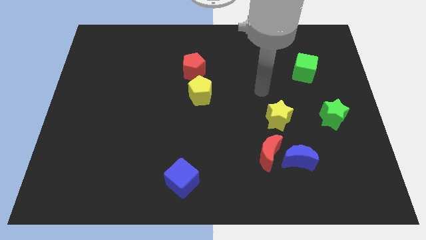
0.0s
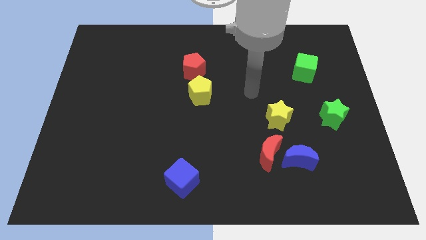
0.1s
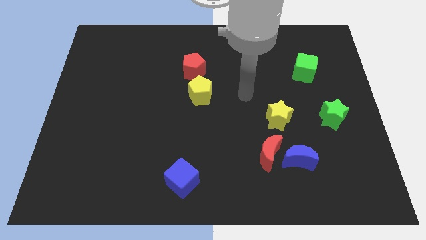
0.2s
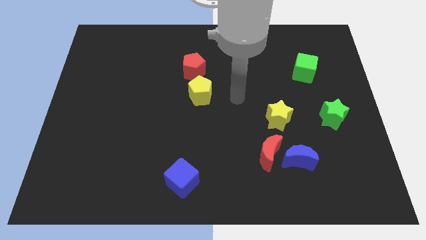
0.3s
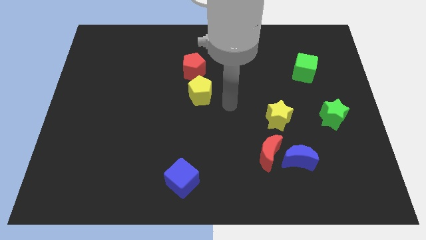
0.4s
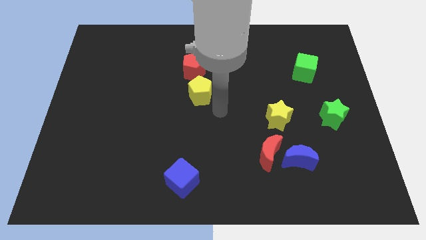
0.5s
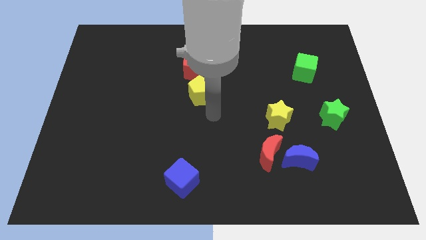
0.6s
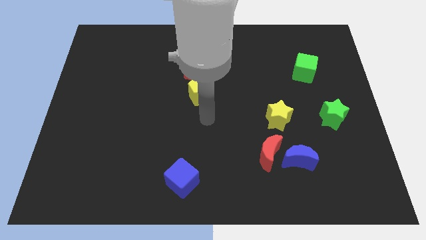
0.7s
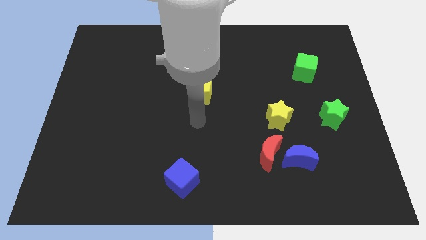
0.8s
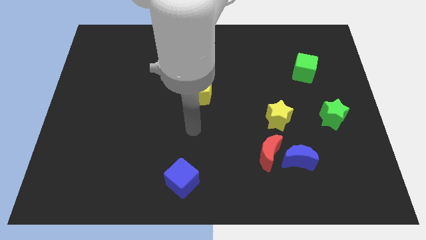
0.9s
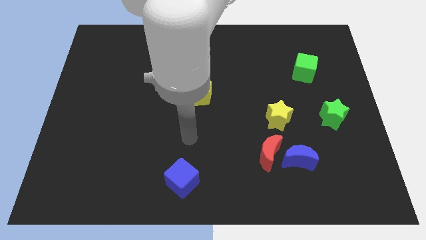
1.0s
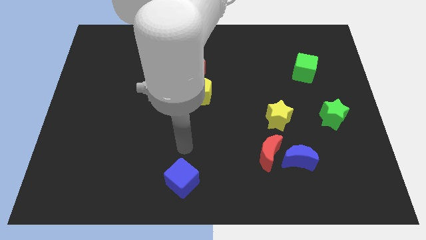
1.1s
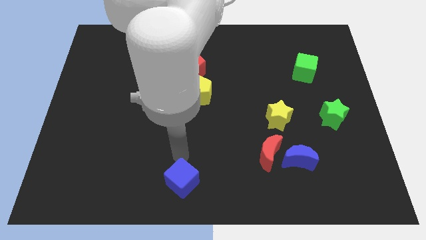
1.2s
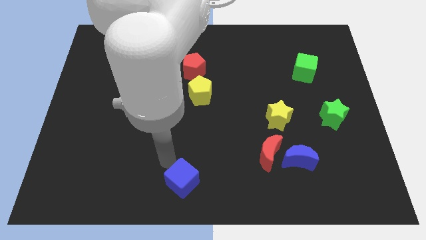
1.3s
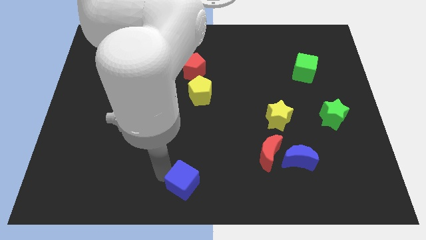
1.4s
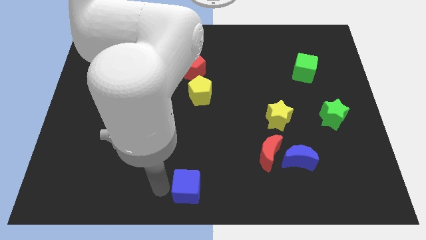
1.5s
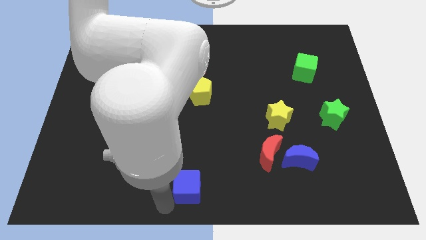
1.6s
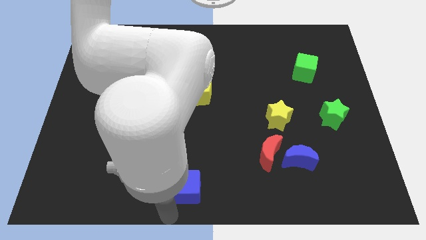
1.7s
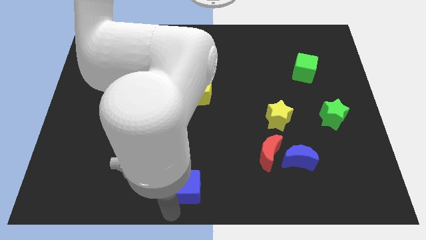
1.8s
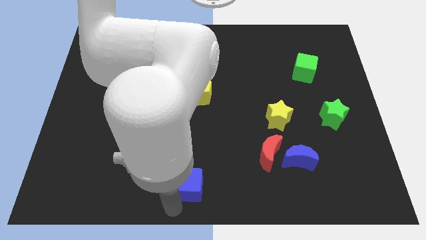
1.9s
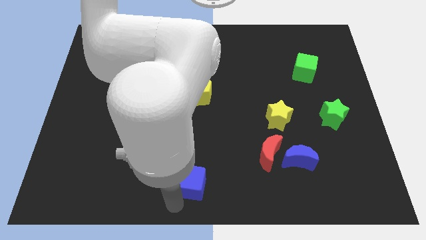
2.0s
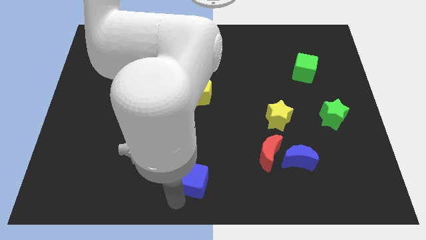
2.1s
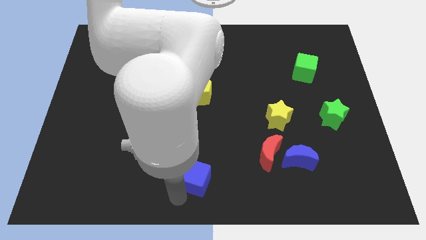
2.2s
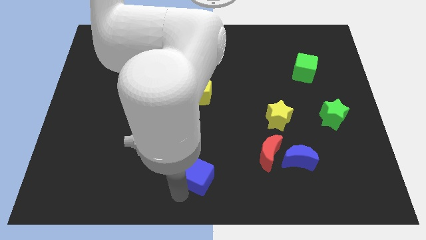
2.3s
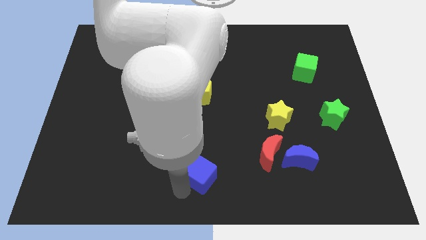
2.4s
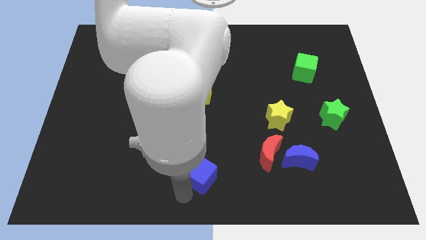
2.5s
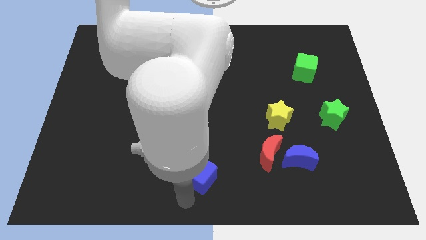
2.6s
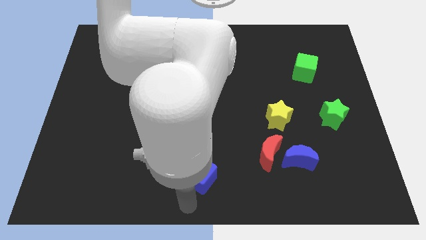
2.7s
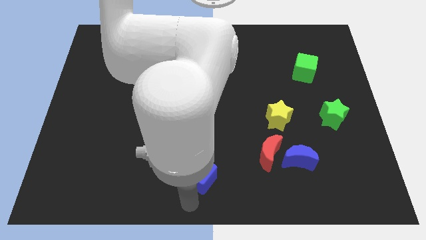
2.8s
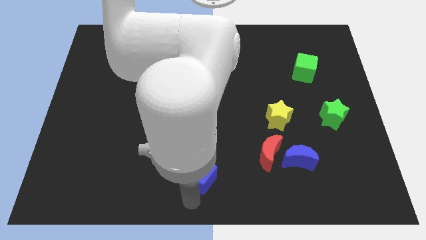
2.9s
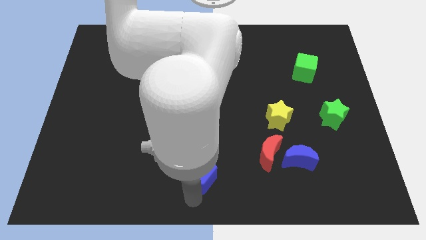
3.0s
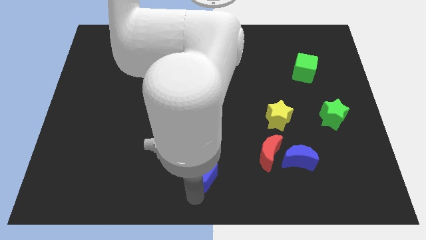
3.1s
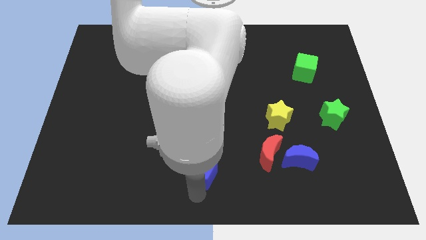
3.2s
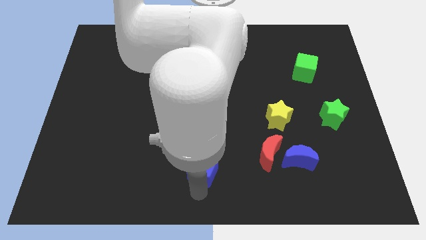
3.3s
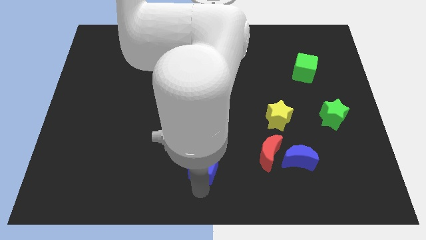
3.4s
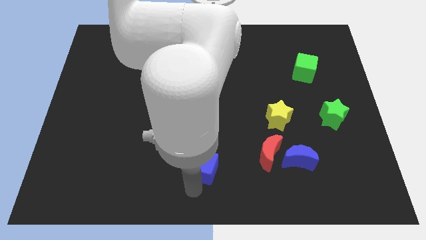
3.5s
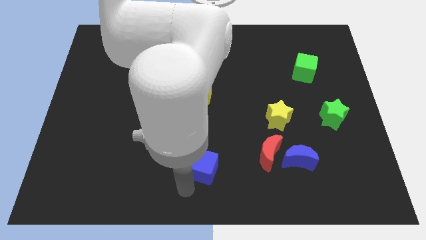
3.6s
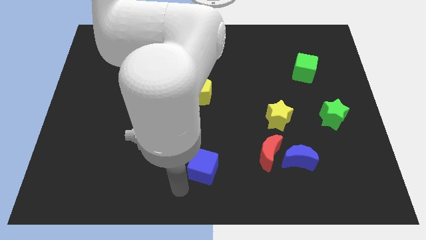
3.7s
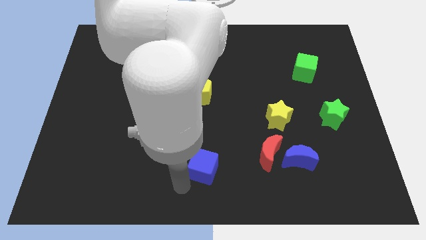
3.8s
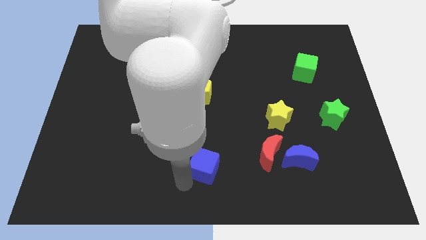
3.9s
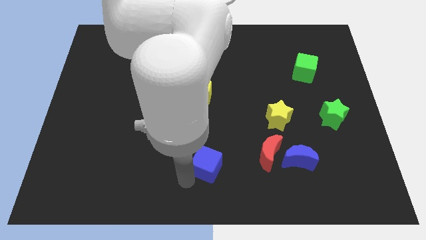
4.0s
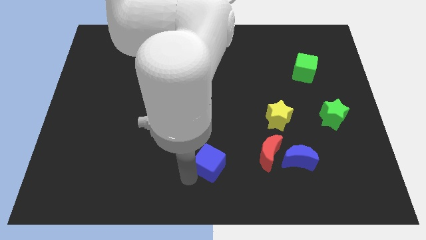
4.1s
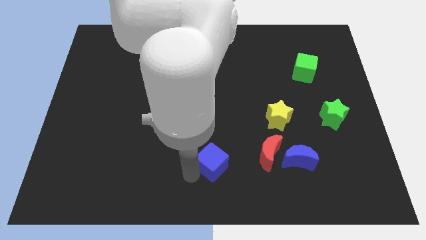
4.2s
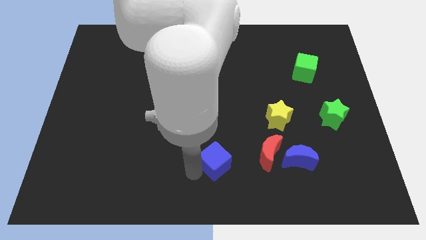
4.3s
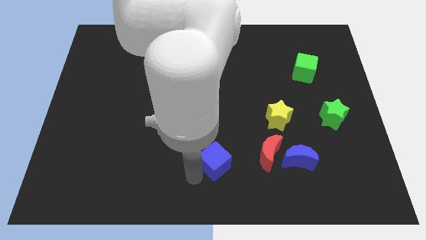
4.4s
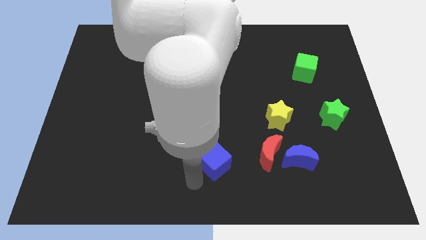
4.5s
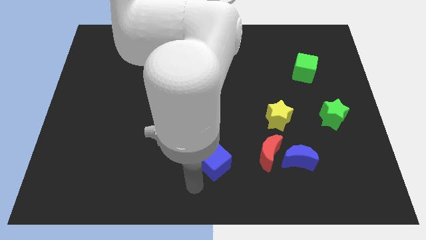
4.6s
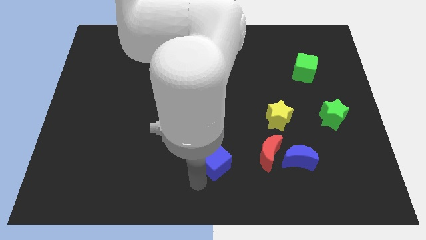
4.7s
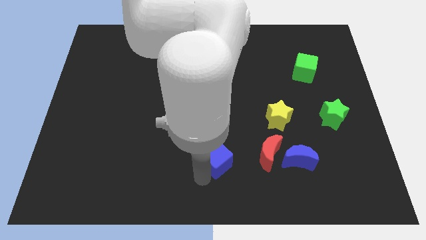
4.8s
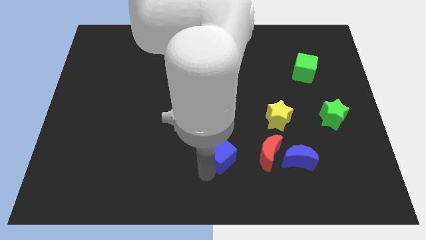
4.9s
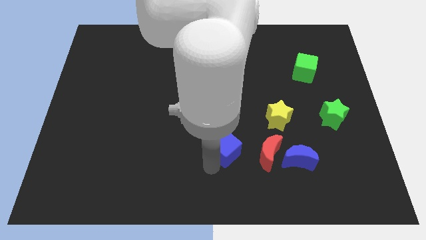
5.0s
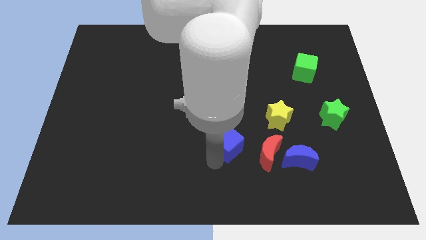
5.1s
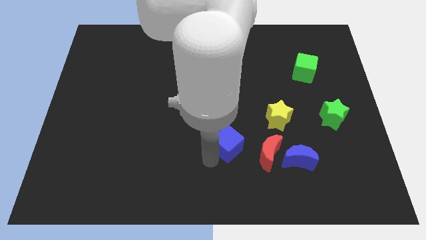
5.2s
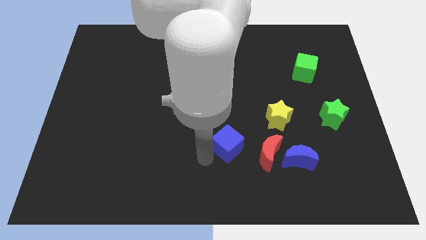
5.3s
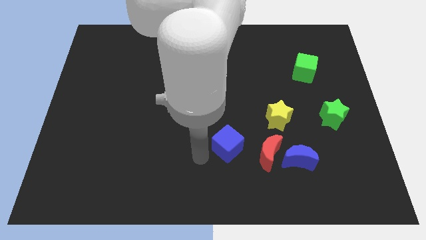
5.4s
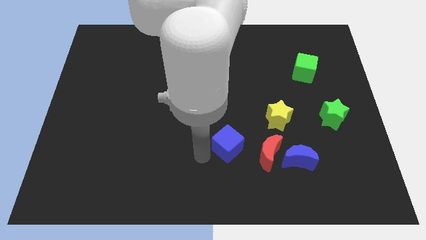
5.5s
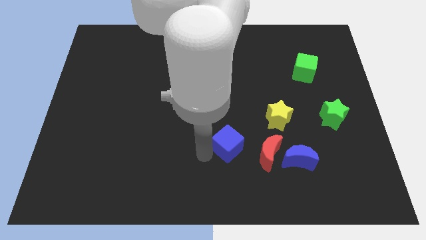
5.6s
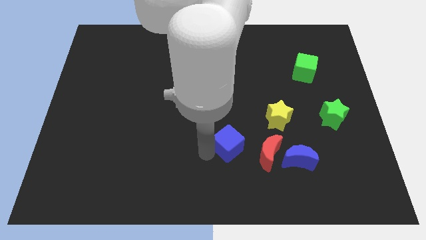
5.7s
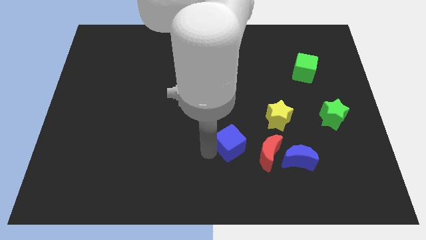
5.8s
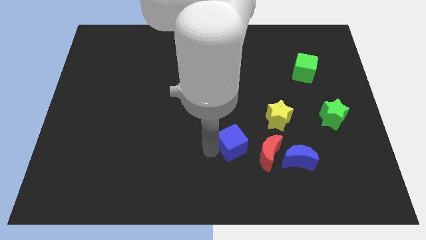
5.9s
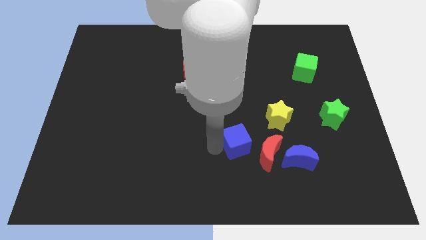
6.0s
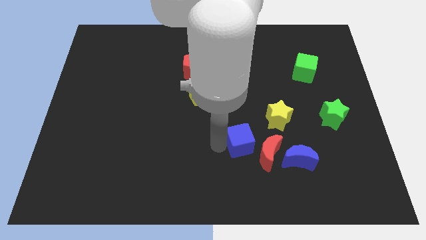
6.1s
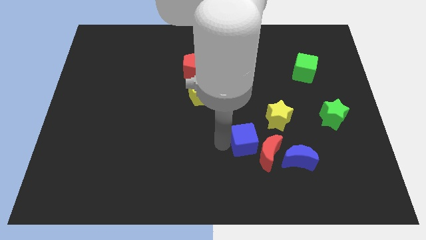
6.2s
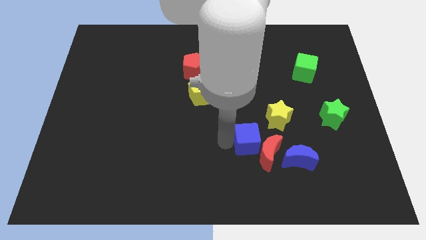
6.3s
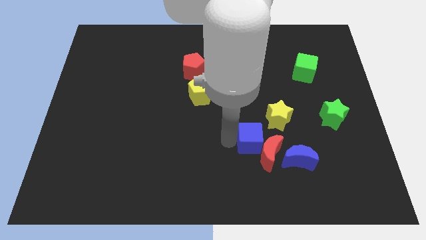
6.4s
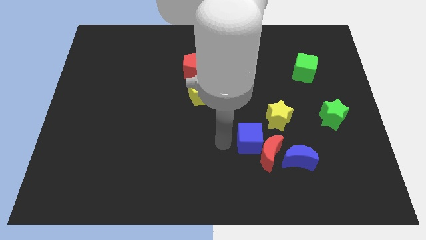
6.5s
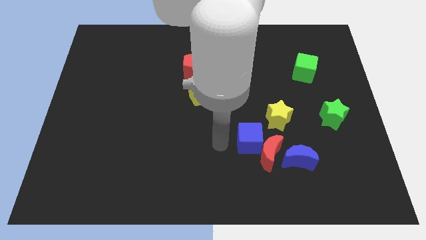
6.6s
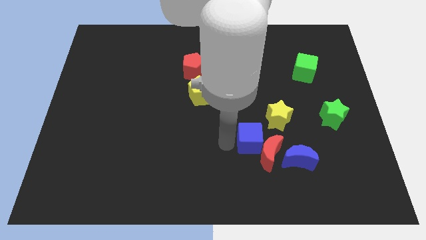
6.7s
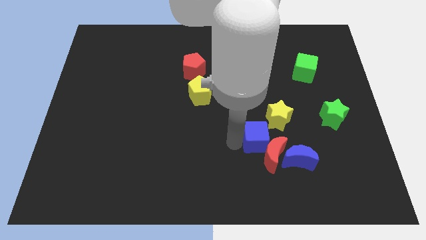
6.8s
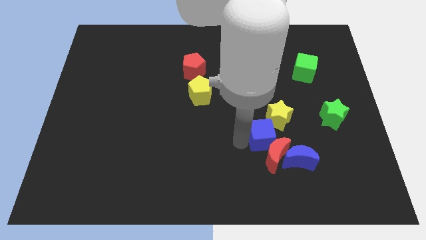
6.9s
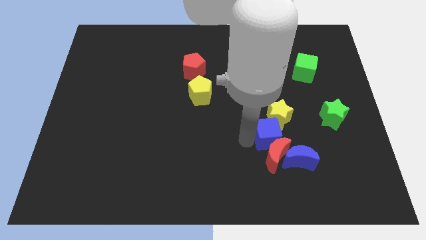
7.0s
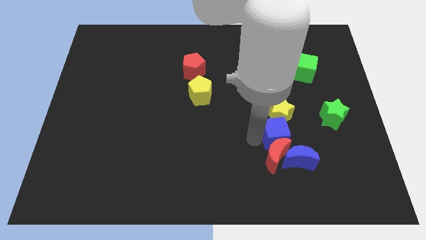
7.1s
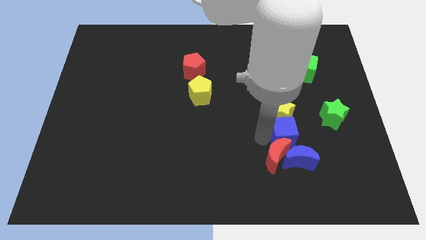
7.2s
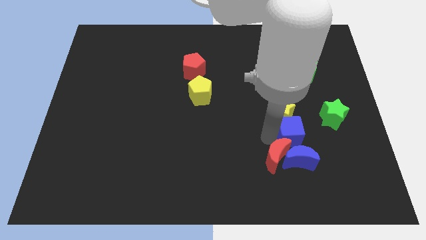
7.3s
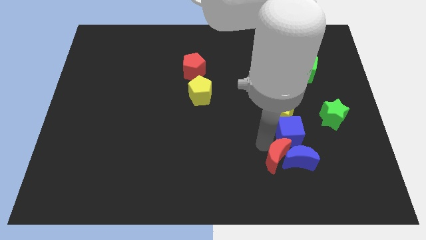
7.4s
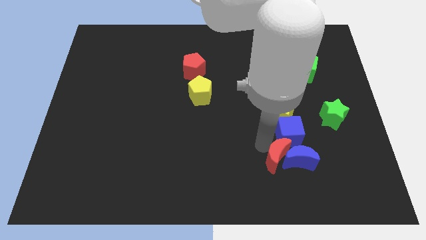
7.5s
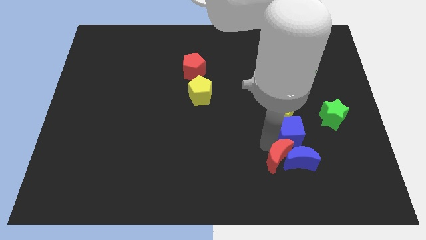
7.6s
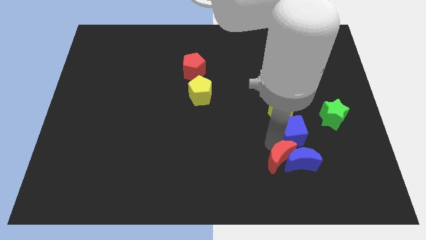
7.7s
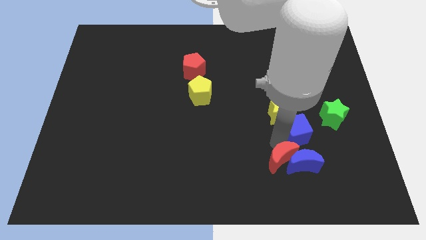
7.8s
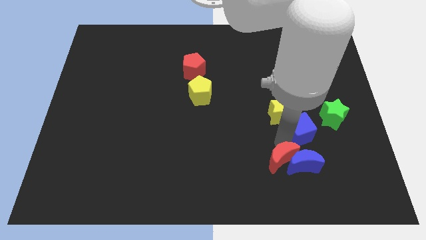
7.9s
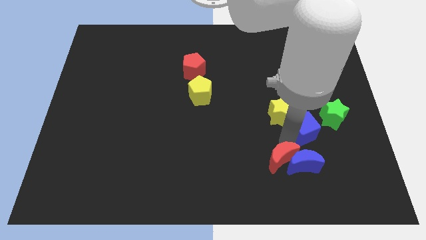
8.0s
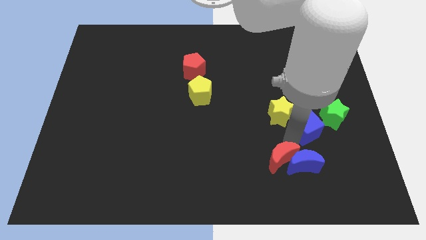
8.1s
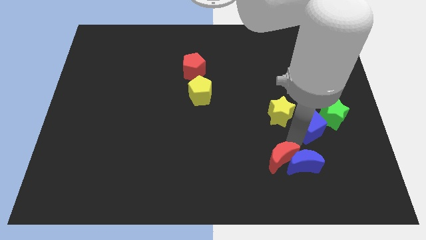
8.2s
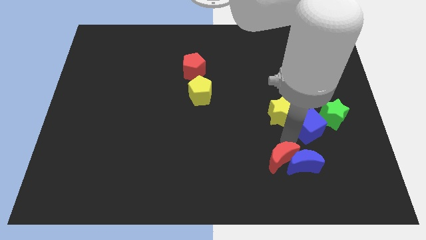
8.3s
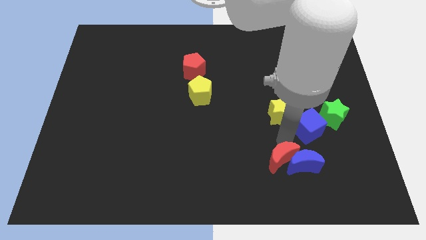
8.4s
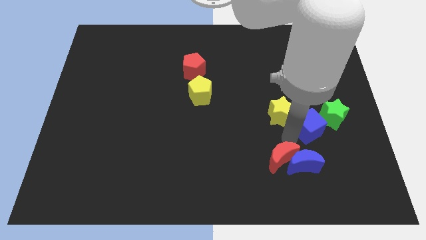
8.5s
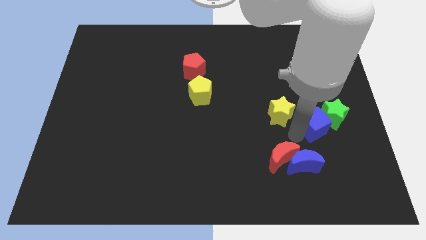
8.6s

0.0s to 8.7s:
put the blue cube close to the green star
